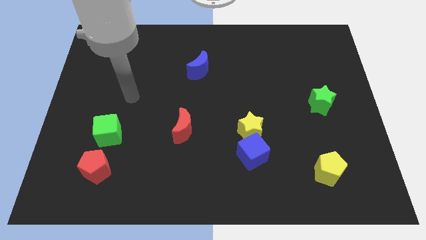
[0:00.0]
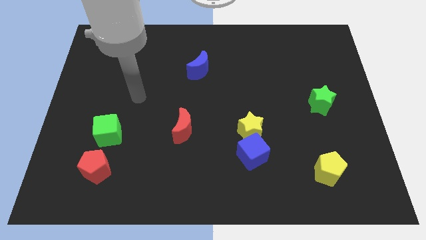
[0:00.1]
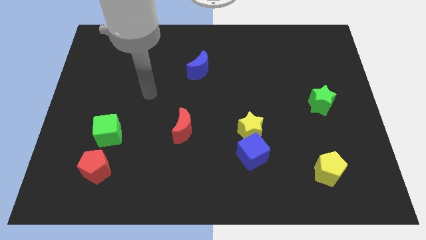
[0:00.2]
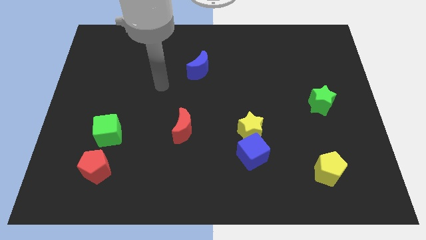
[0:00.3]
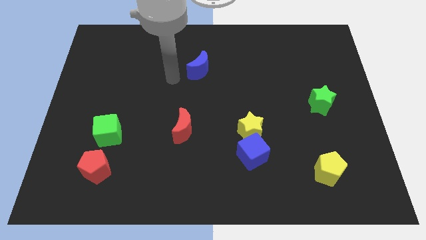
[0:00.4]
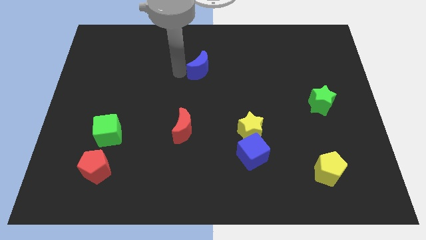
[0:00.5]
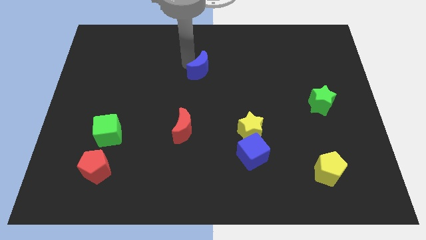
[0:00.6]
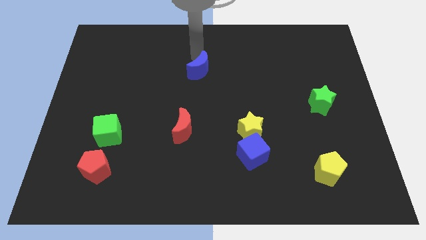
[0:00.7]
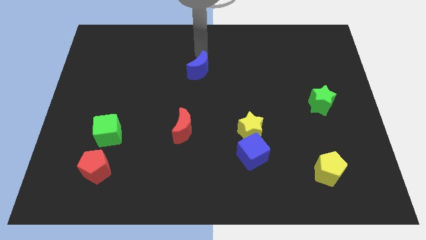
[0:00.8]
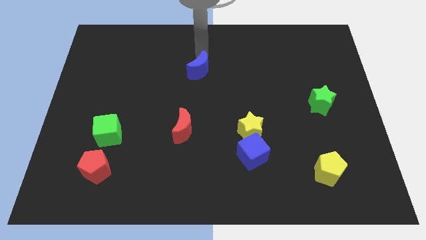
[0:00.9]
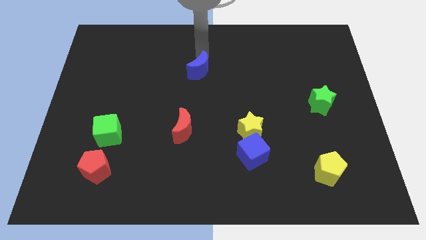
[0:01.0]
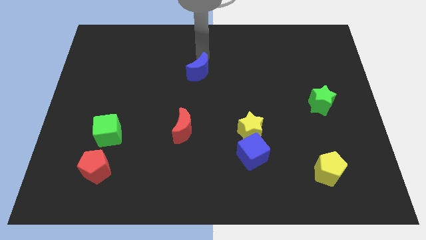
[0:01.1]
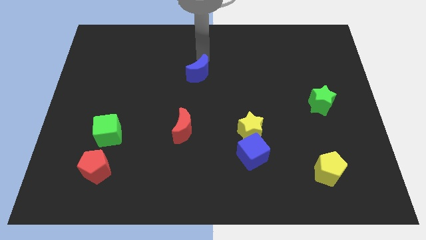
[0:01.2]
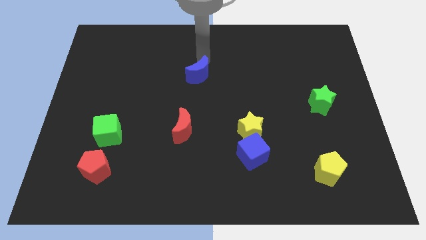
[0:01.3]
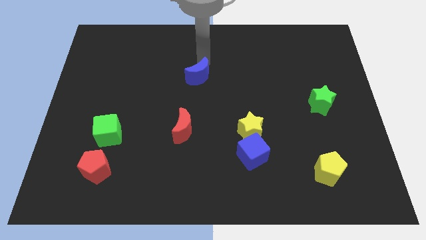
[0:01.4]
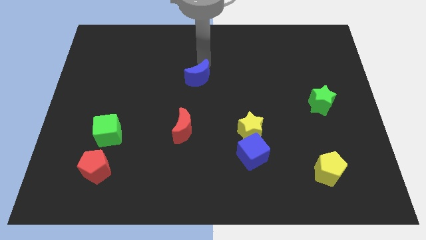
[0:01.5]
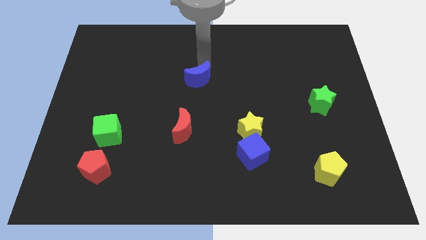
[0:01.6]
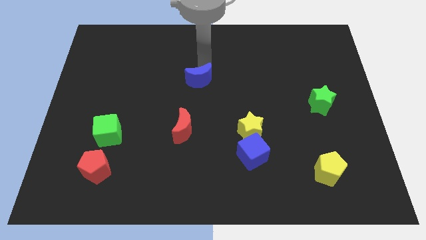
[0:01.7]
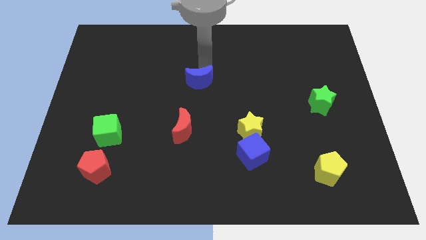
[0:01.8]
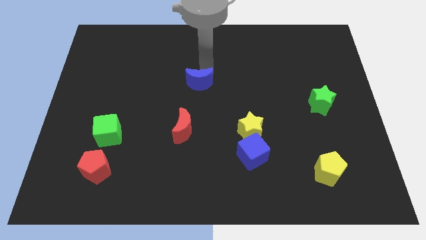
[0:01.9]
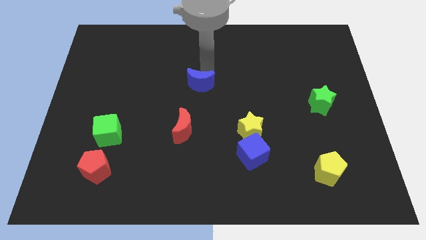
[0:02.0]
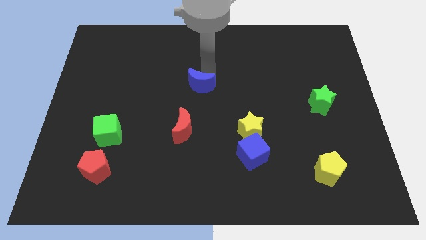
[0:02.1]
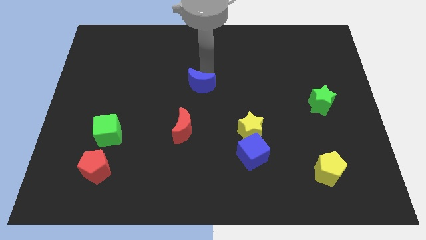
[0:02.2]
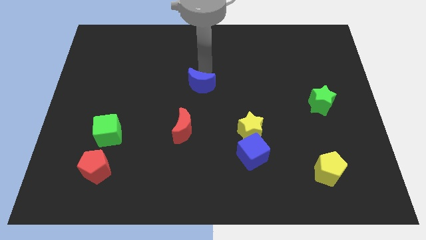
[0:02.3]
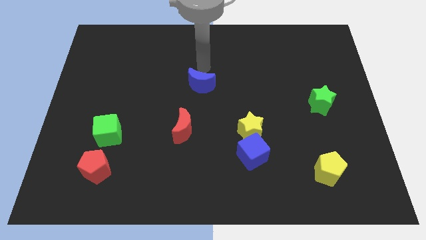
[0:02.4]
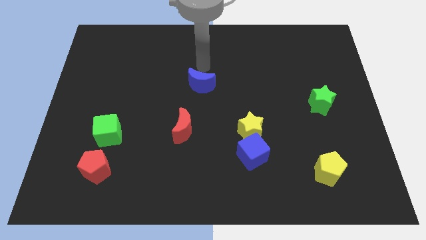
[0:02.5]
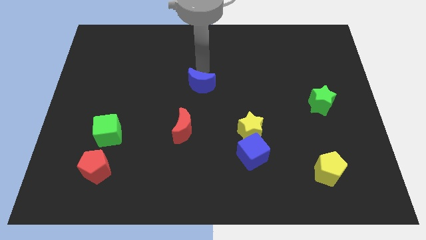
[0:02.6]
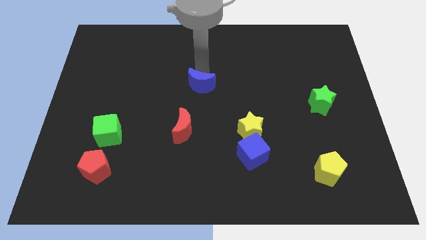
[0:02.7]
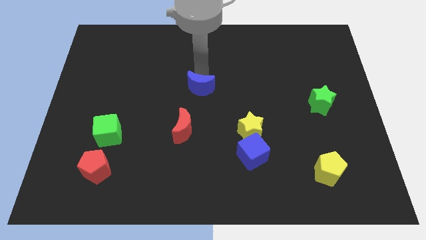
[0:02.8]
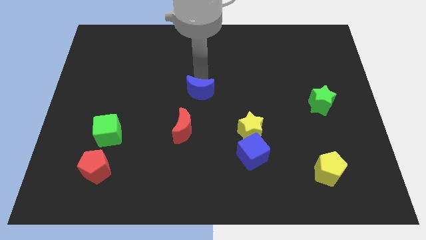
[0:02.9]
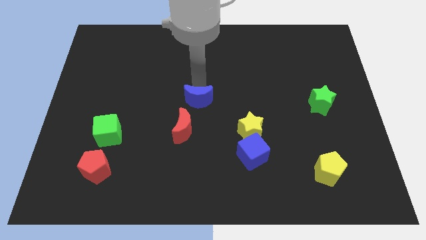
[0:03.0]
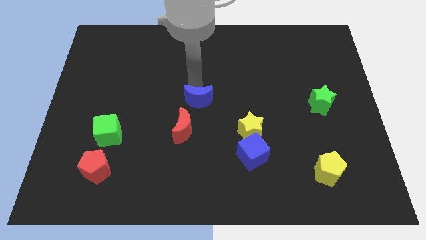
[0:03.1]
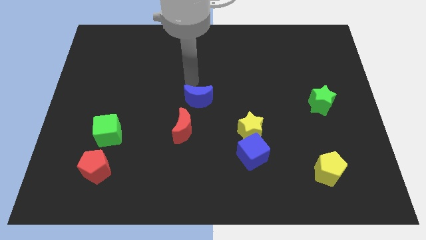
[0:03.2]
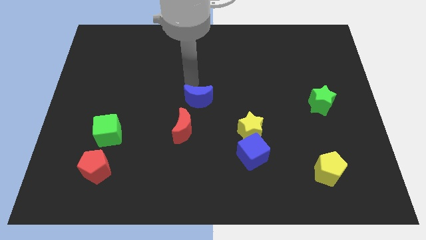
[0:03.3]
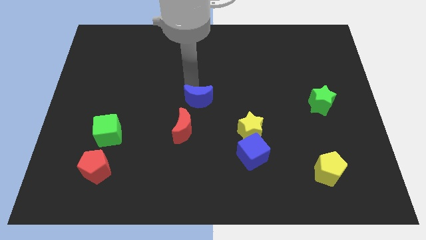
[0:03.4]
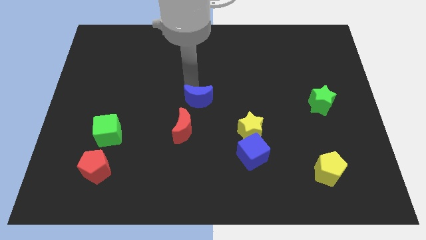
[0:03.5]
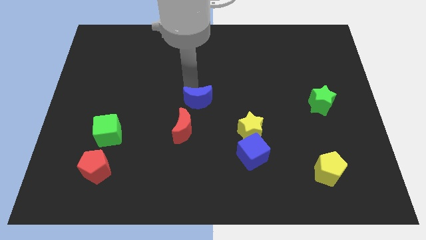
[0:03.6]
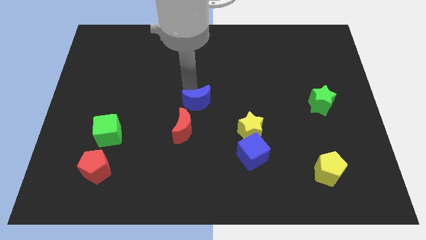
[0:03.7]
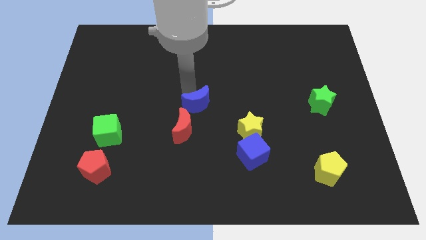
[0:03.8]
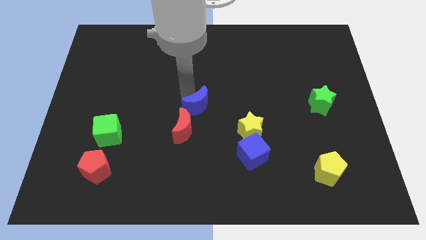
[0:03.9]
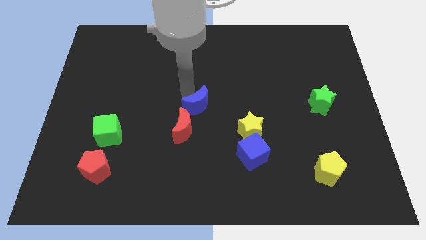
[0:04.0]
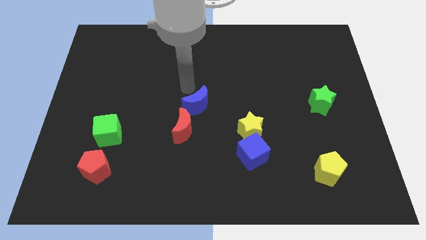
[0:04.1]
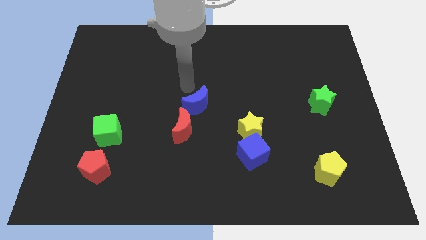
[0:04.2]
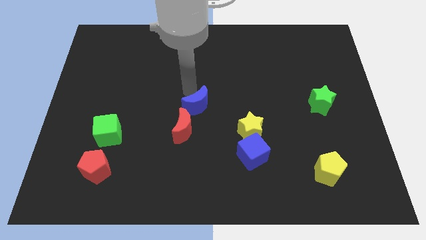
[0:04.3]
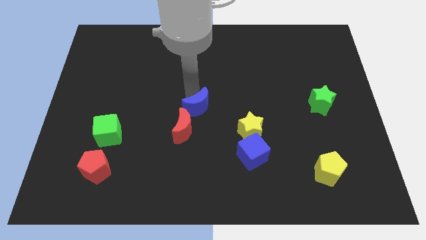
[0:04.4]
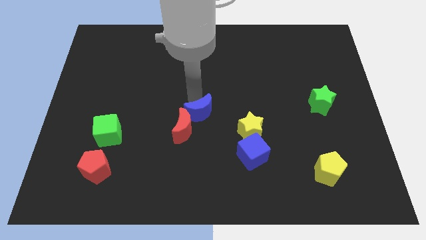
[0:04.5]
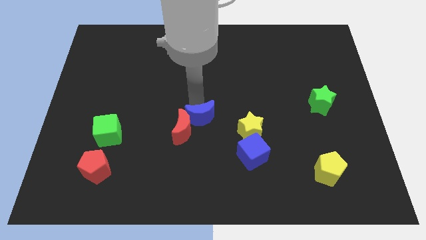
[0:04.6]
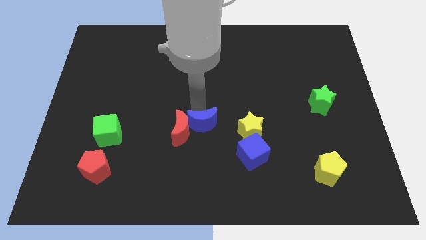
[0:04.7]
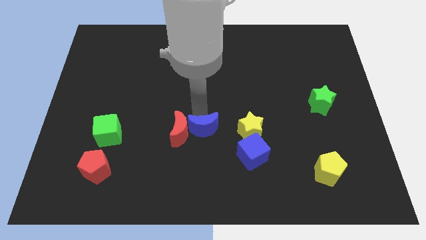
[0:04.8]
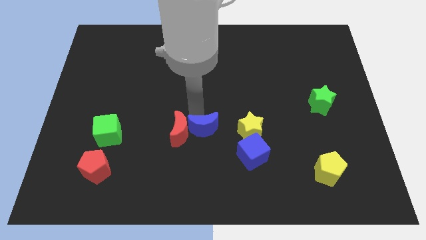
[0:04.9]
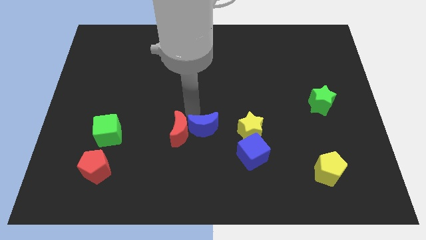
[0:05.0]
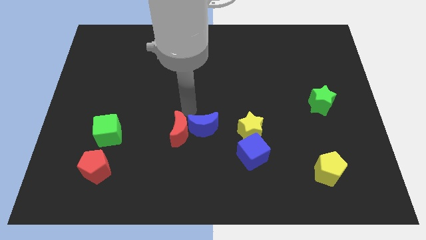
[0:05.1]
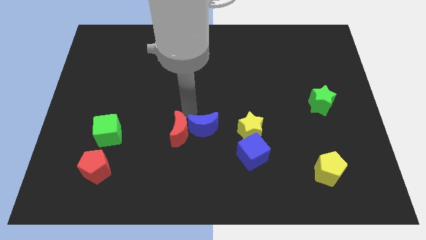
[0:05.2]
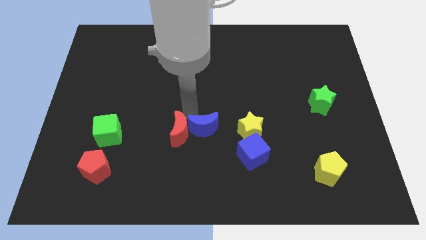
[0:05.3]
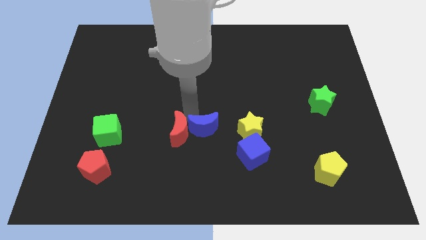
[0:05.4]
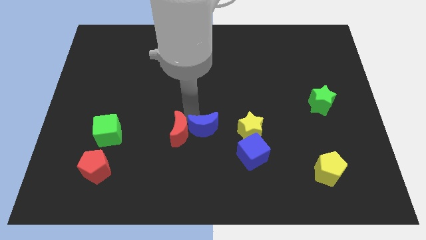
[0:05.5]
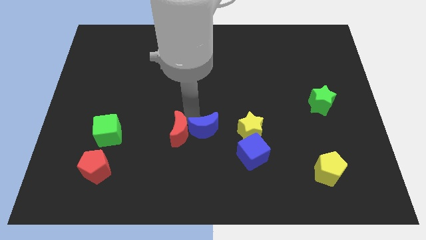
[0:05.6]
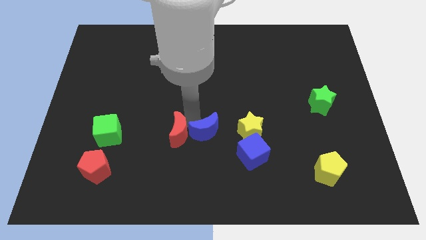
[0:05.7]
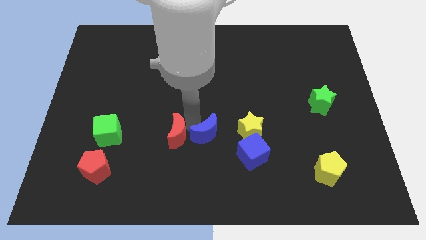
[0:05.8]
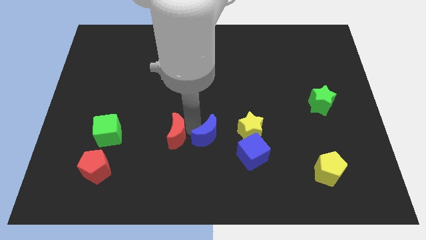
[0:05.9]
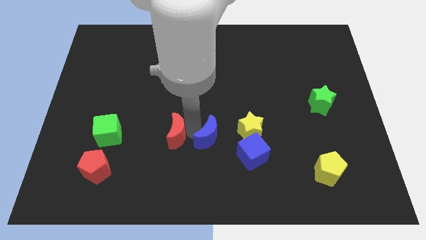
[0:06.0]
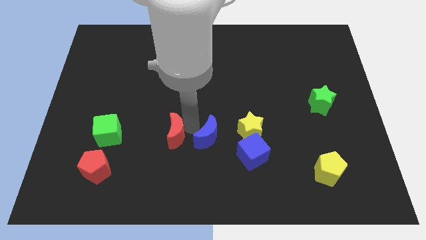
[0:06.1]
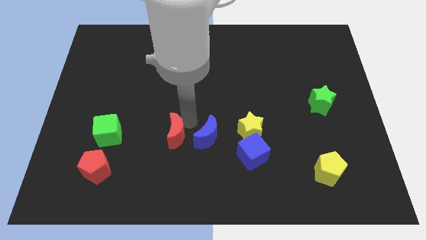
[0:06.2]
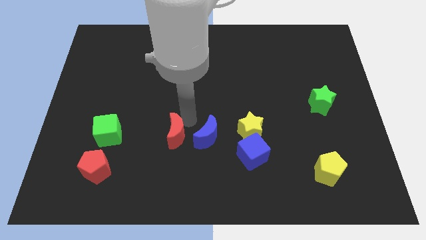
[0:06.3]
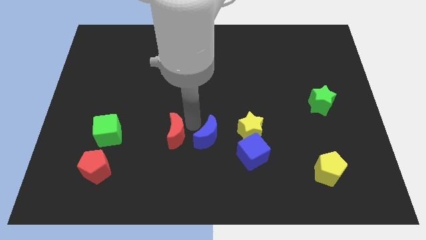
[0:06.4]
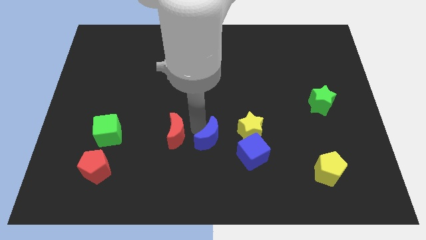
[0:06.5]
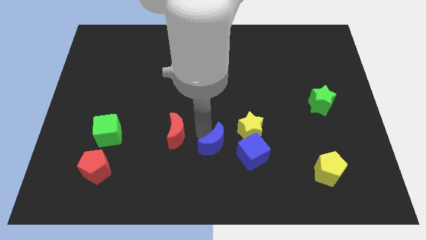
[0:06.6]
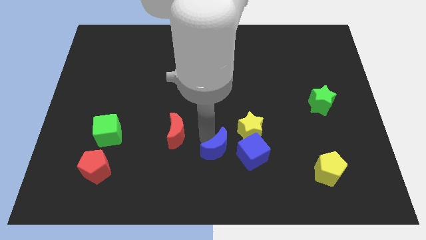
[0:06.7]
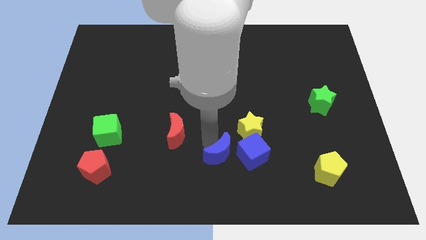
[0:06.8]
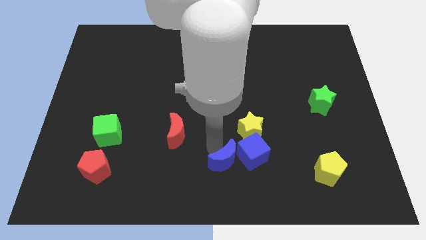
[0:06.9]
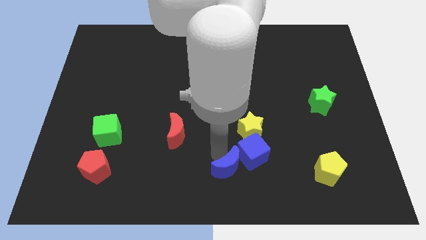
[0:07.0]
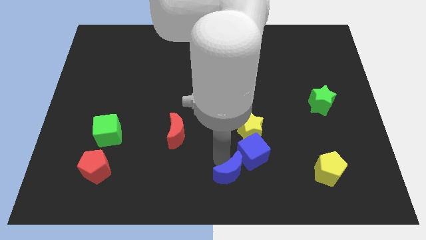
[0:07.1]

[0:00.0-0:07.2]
push the blue moon below the yellow star

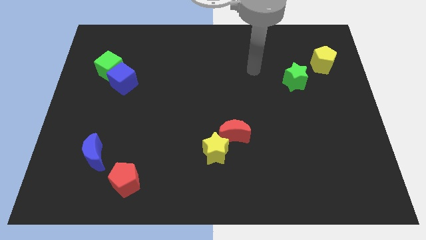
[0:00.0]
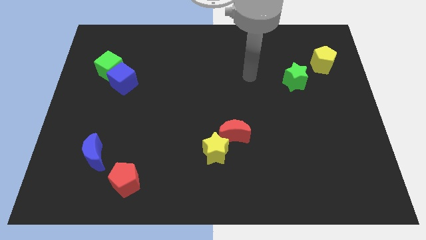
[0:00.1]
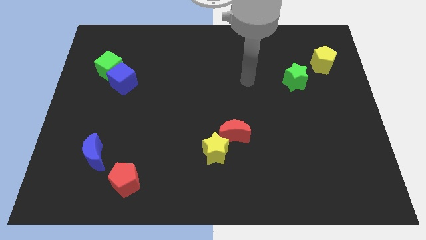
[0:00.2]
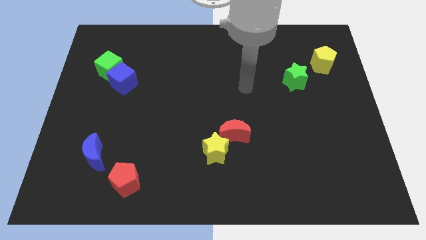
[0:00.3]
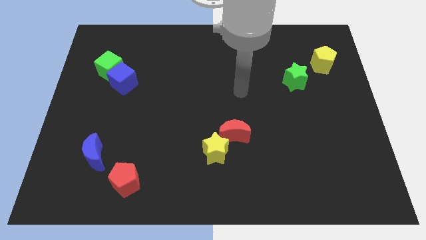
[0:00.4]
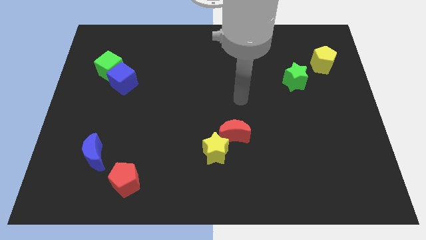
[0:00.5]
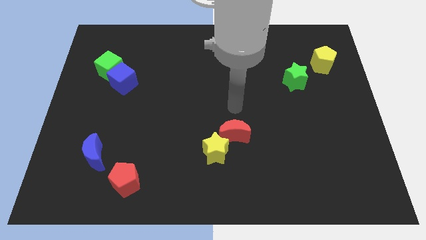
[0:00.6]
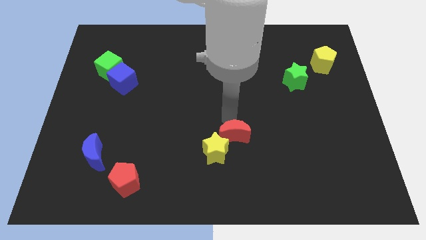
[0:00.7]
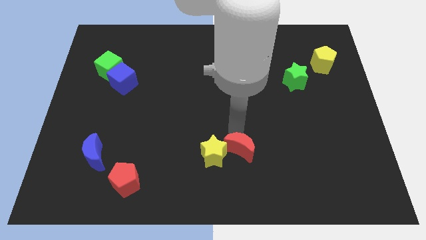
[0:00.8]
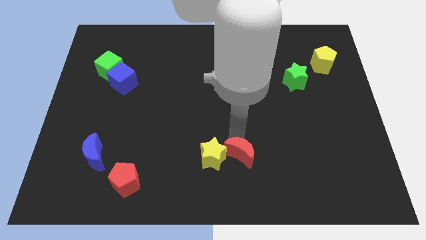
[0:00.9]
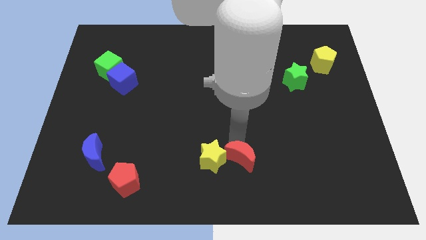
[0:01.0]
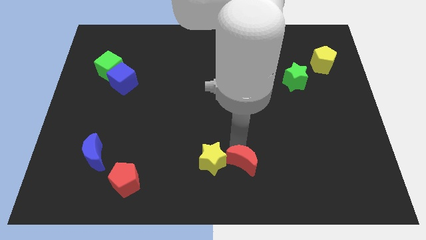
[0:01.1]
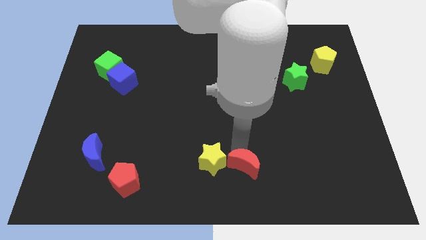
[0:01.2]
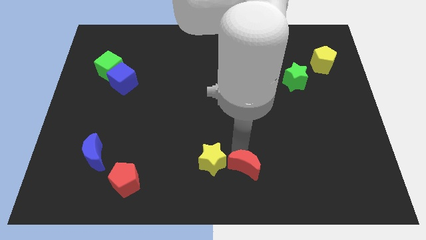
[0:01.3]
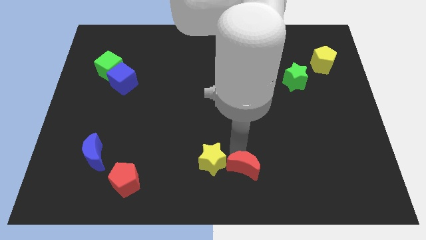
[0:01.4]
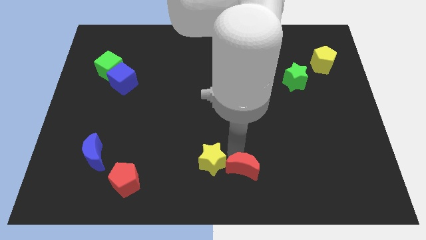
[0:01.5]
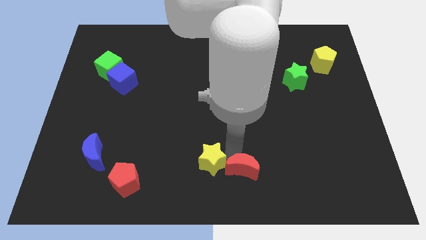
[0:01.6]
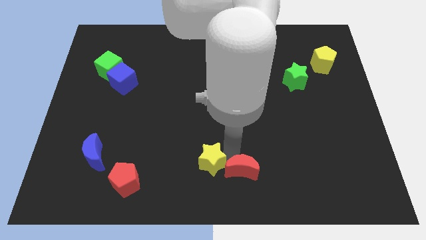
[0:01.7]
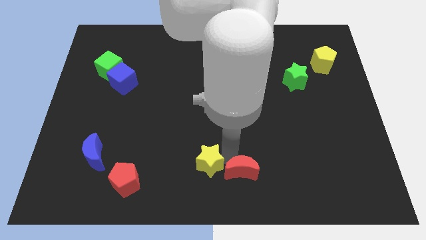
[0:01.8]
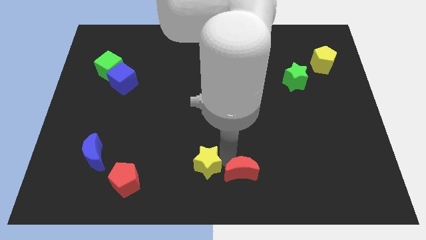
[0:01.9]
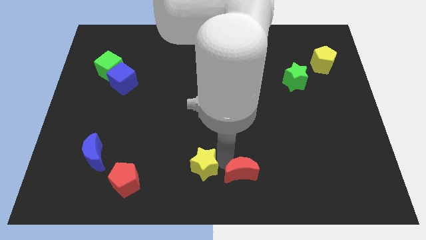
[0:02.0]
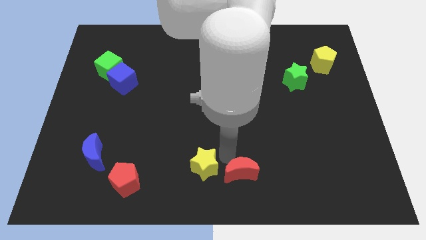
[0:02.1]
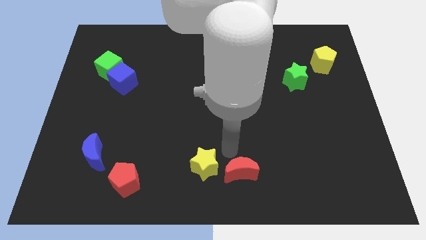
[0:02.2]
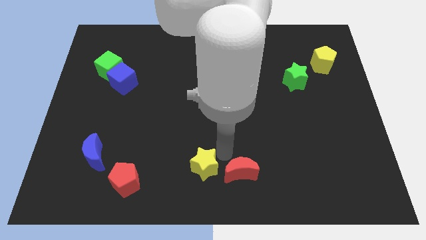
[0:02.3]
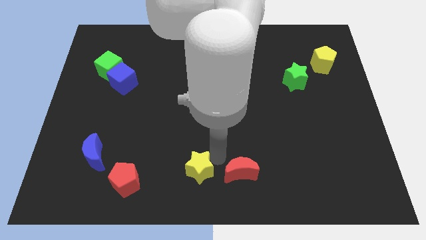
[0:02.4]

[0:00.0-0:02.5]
move the yellow star to the right of the red pentagon
